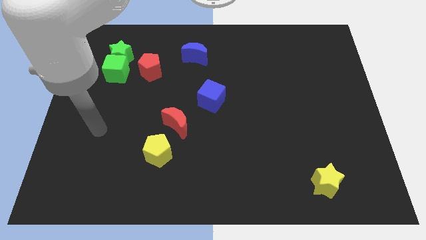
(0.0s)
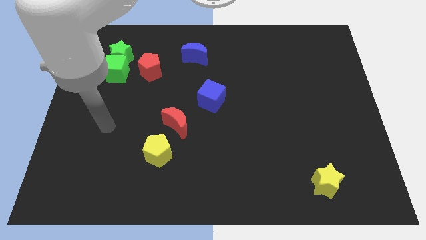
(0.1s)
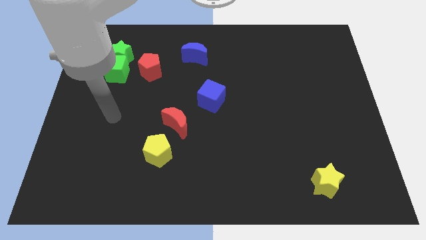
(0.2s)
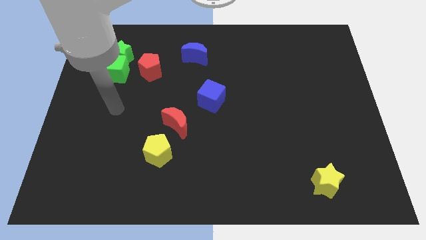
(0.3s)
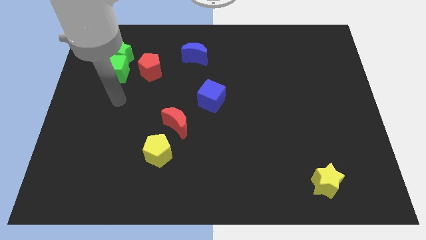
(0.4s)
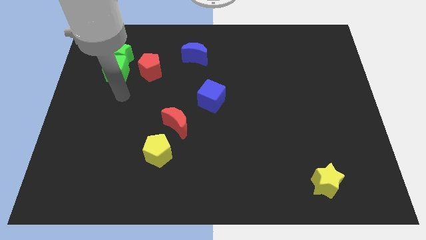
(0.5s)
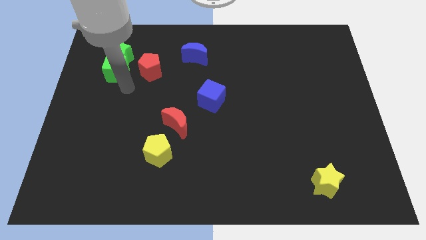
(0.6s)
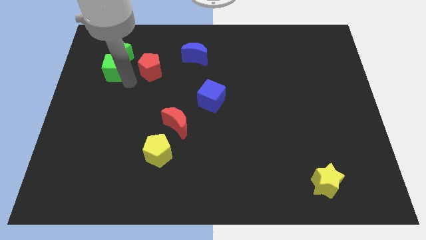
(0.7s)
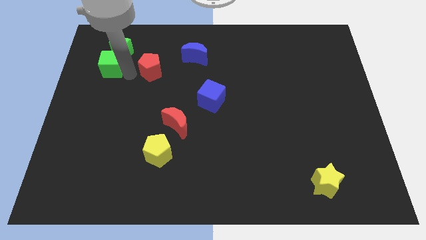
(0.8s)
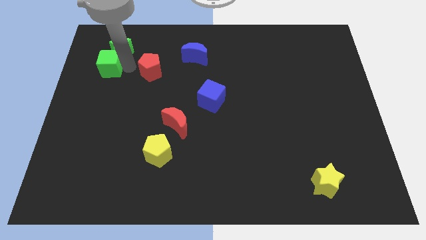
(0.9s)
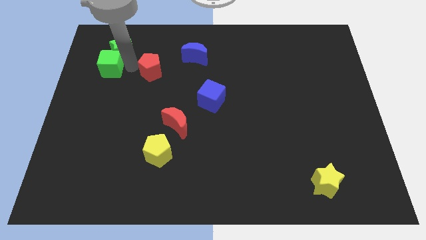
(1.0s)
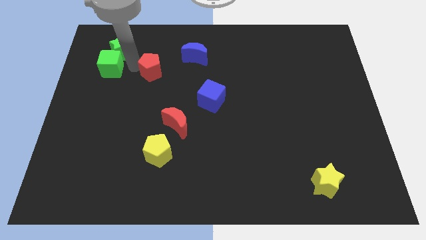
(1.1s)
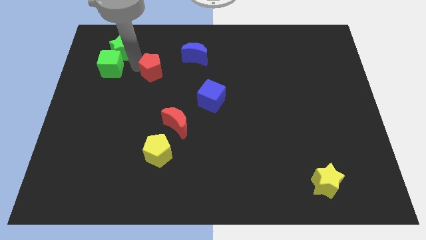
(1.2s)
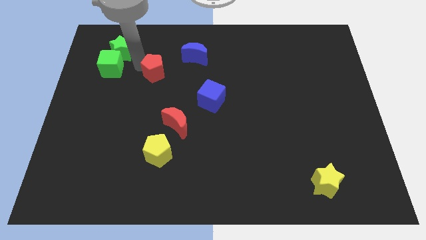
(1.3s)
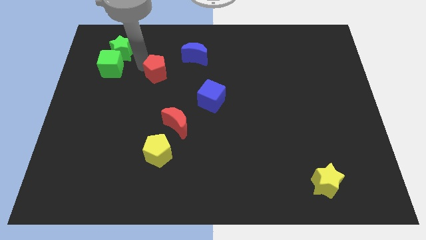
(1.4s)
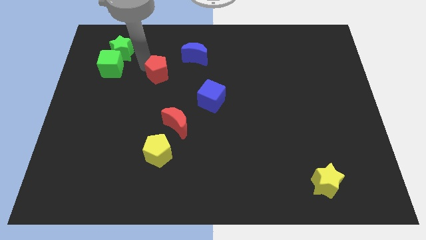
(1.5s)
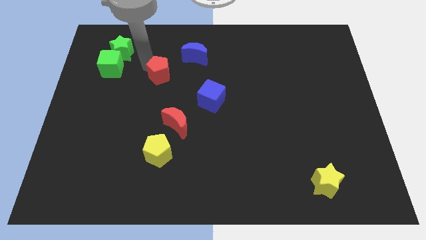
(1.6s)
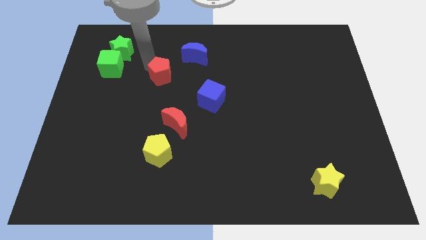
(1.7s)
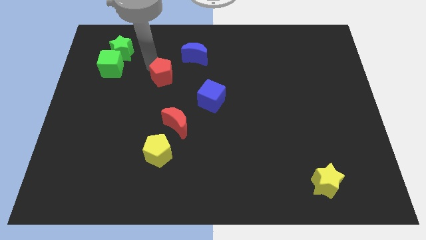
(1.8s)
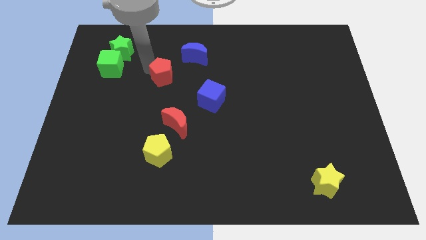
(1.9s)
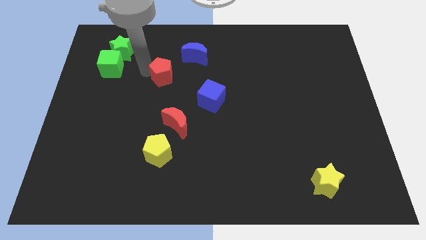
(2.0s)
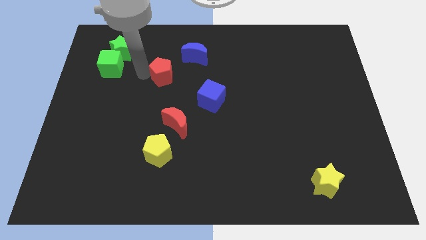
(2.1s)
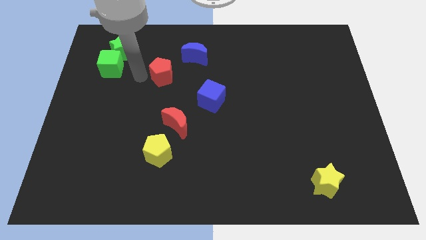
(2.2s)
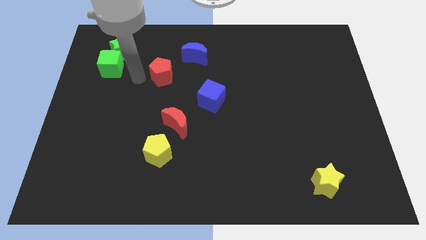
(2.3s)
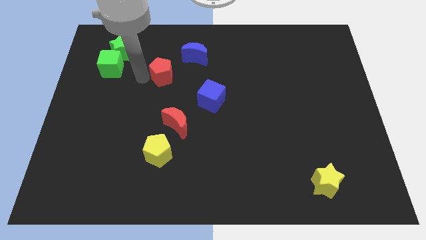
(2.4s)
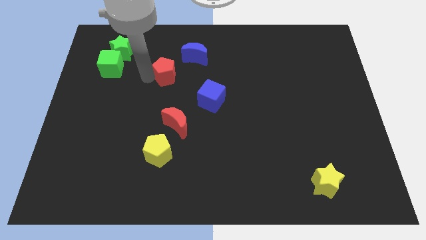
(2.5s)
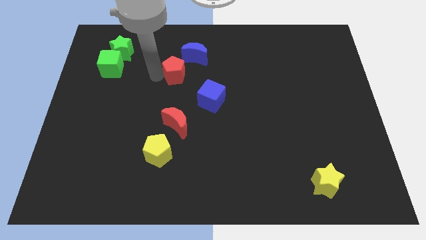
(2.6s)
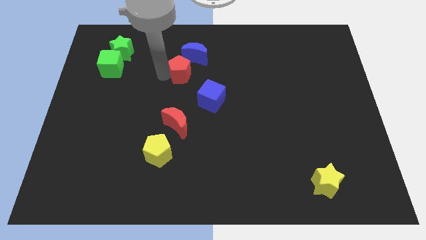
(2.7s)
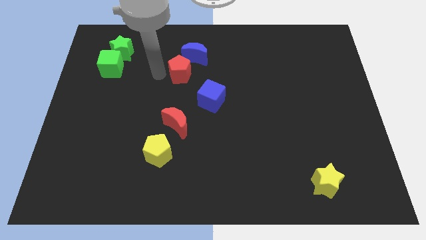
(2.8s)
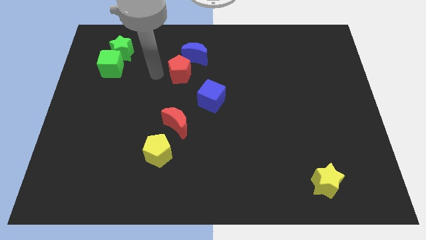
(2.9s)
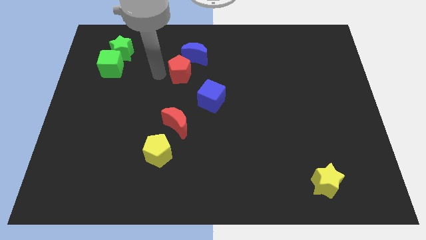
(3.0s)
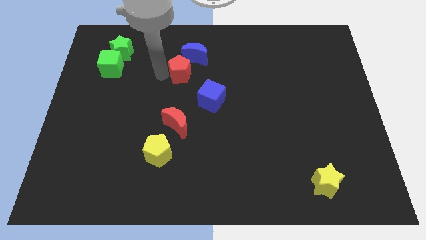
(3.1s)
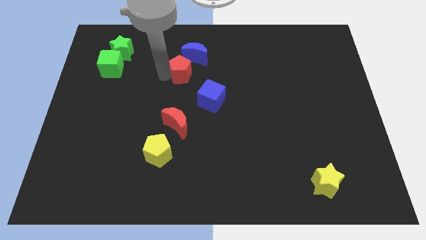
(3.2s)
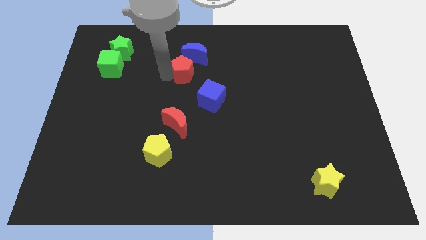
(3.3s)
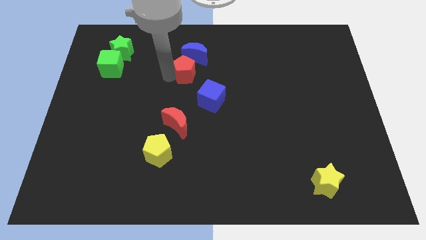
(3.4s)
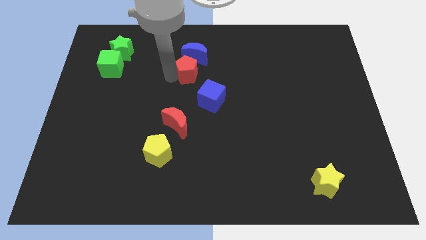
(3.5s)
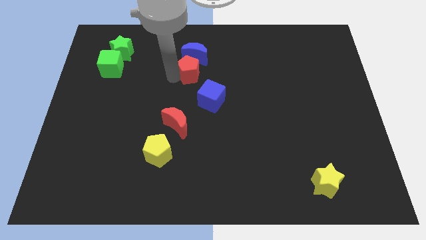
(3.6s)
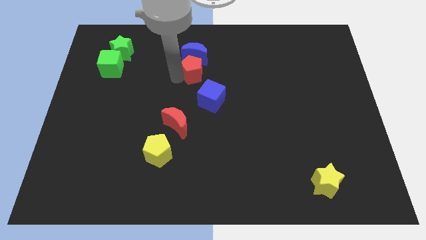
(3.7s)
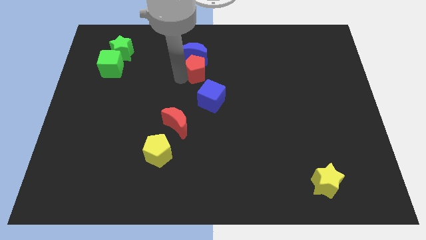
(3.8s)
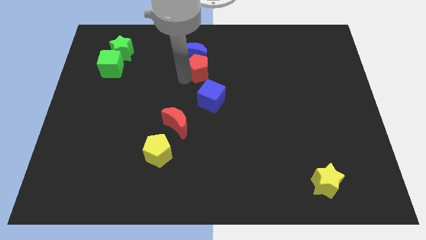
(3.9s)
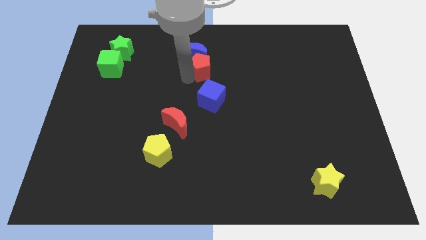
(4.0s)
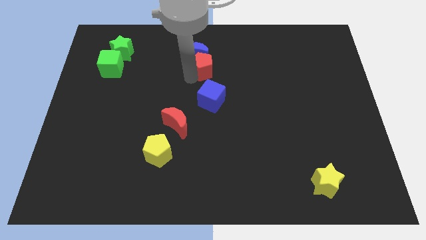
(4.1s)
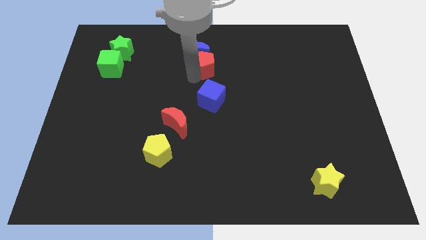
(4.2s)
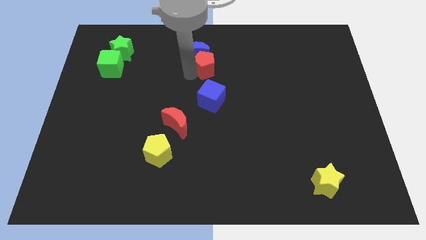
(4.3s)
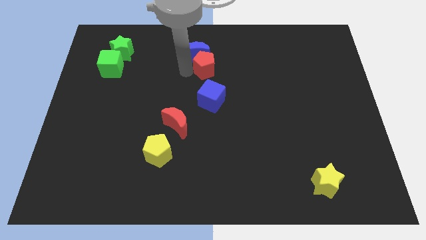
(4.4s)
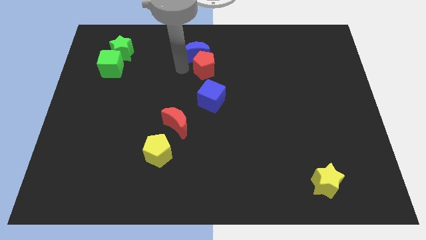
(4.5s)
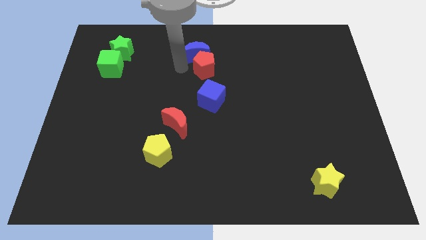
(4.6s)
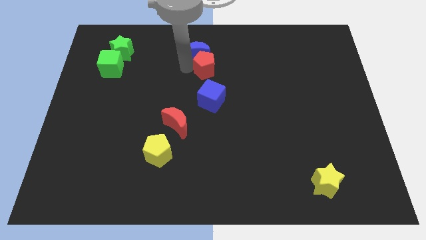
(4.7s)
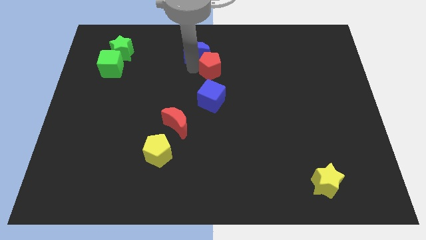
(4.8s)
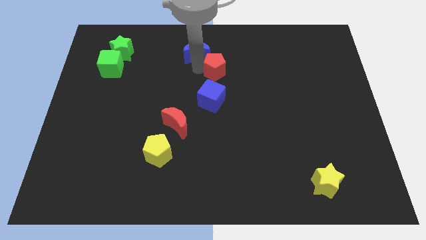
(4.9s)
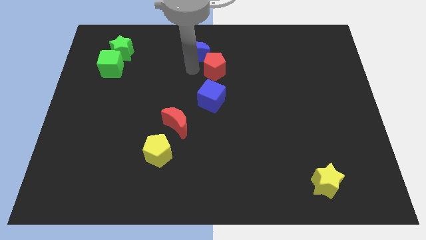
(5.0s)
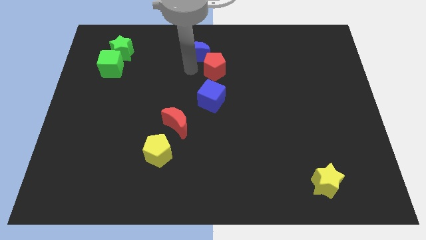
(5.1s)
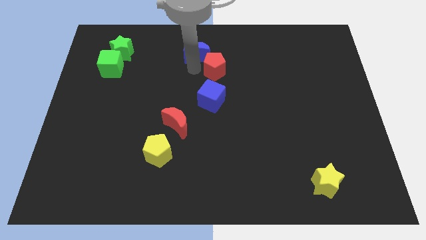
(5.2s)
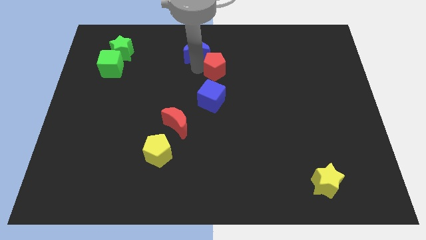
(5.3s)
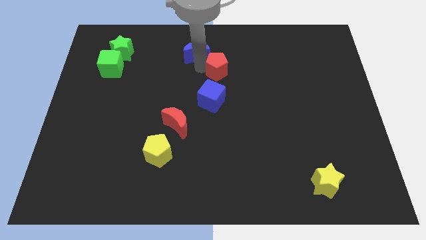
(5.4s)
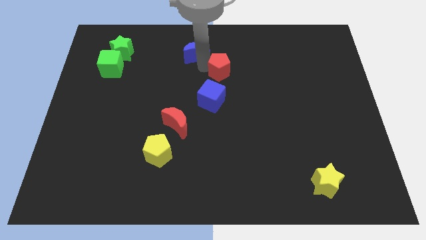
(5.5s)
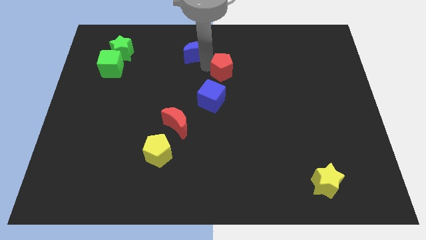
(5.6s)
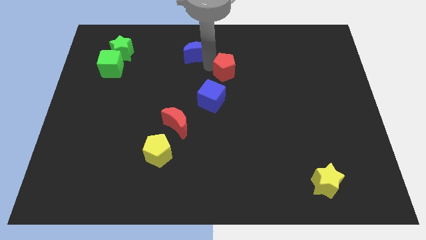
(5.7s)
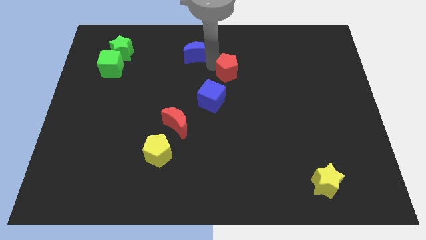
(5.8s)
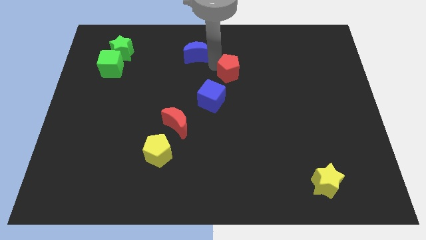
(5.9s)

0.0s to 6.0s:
move the red pentagon right

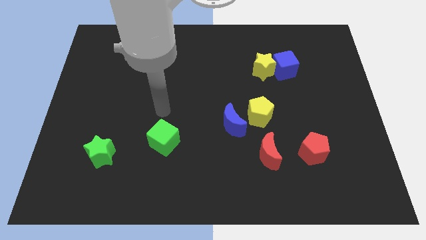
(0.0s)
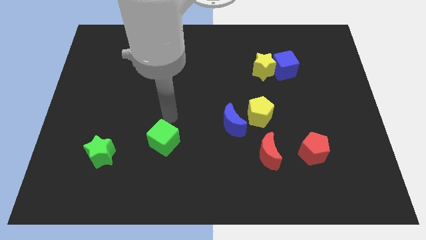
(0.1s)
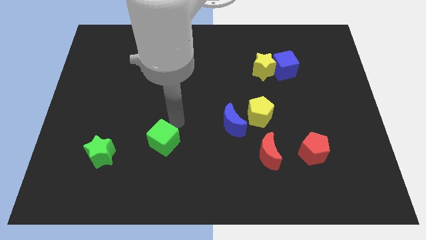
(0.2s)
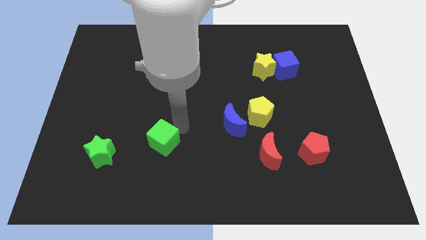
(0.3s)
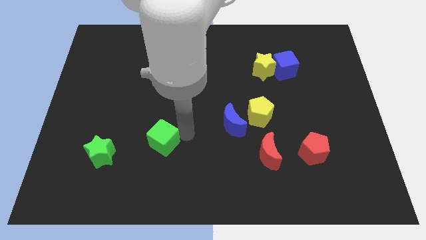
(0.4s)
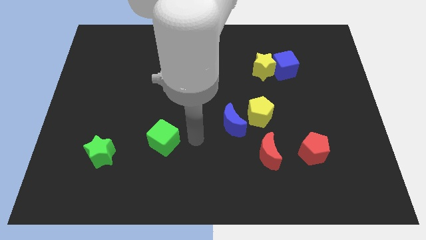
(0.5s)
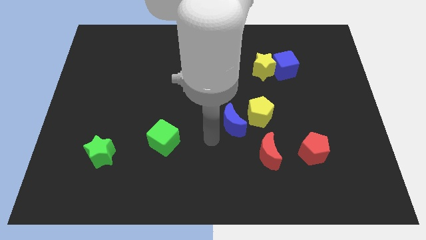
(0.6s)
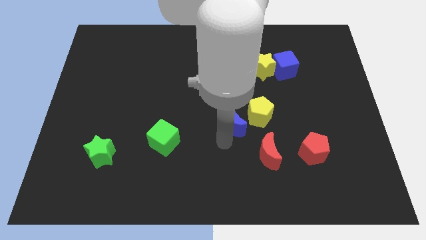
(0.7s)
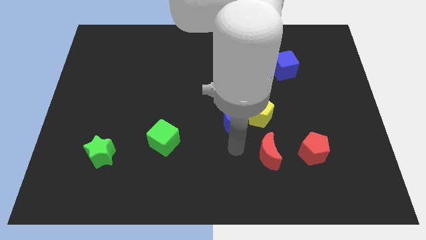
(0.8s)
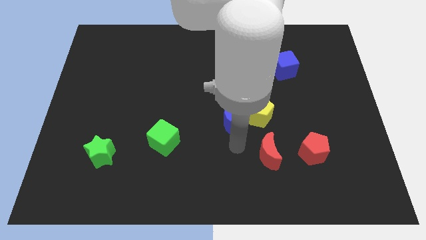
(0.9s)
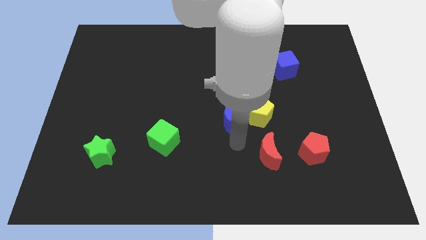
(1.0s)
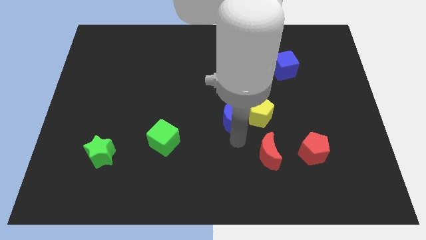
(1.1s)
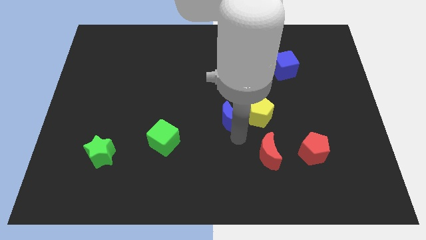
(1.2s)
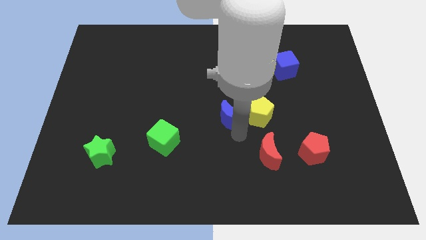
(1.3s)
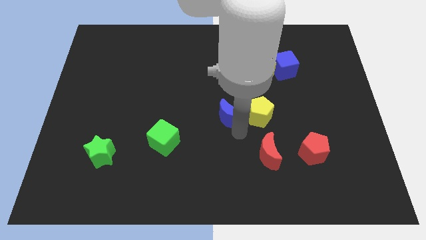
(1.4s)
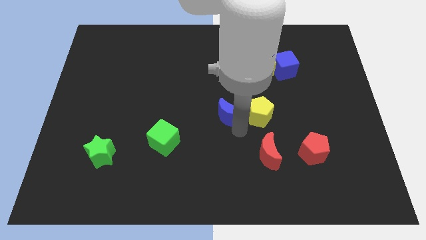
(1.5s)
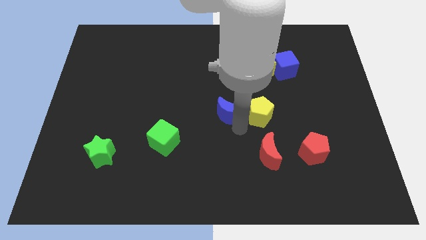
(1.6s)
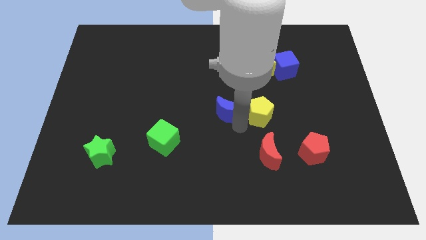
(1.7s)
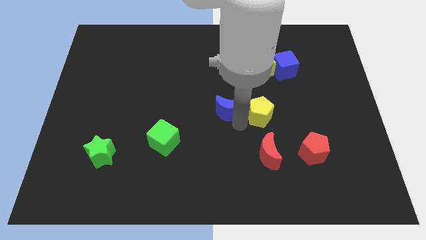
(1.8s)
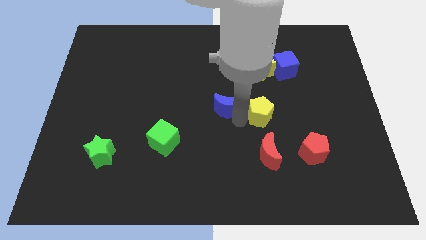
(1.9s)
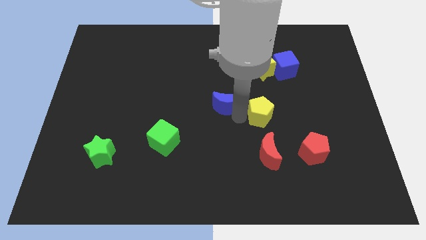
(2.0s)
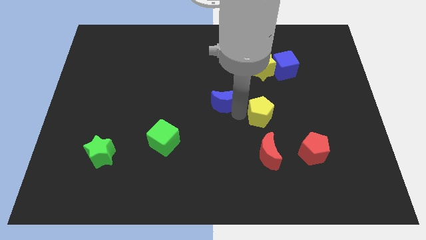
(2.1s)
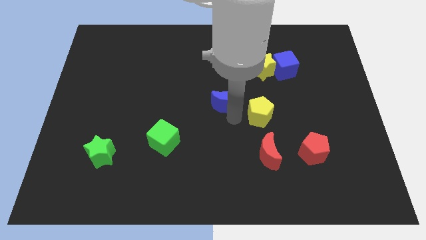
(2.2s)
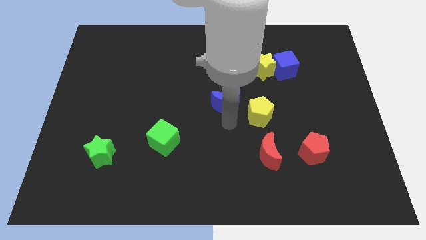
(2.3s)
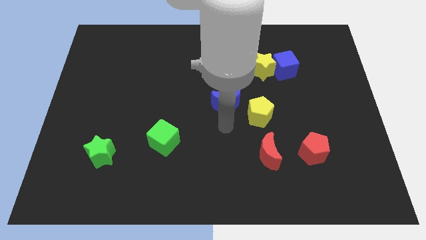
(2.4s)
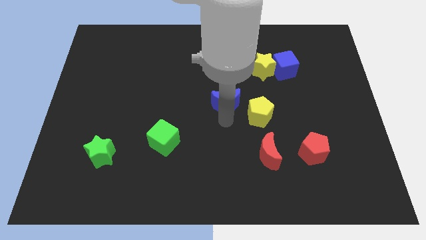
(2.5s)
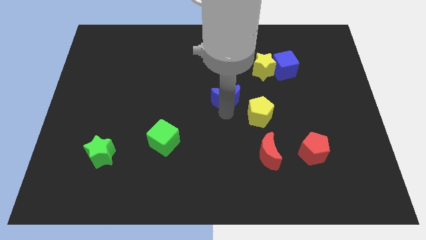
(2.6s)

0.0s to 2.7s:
slightly move the blue moon up
